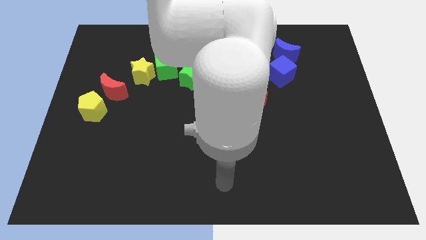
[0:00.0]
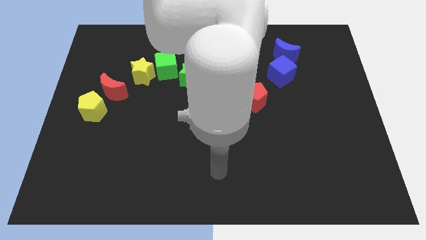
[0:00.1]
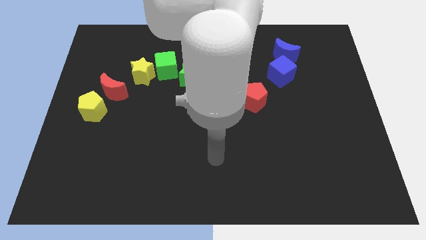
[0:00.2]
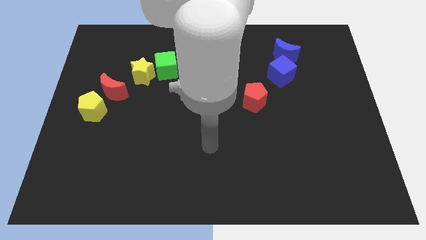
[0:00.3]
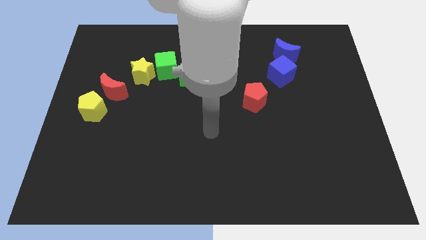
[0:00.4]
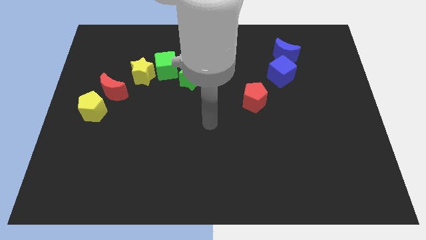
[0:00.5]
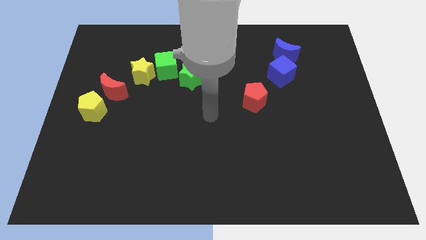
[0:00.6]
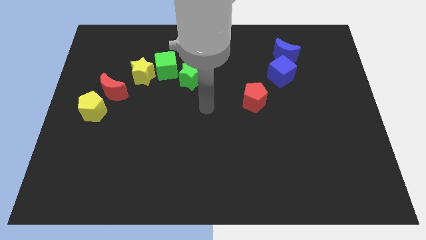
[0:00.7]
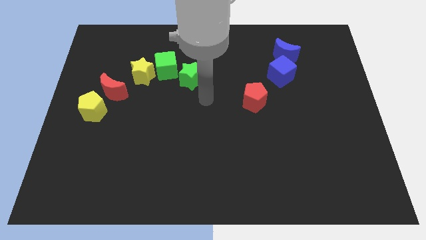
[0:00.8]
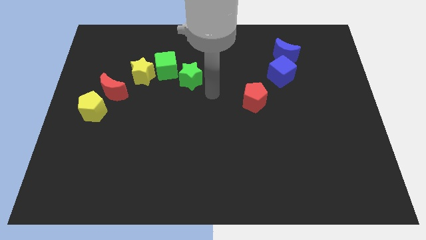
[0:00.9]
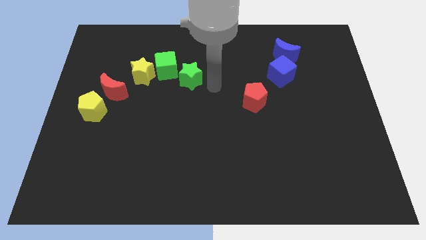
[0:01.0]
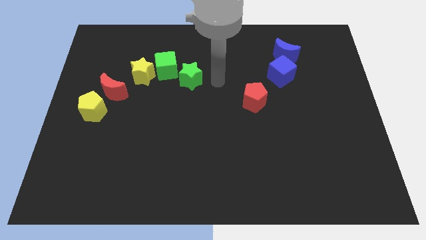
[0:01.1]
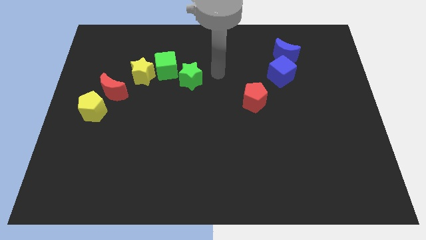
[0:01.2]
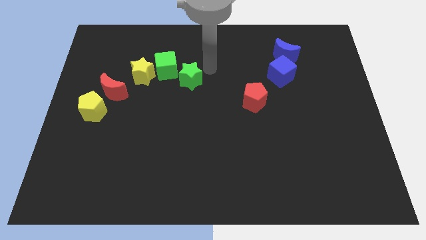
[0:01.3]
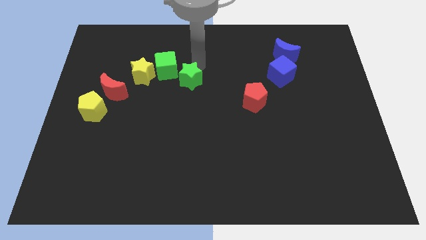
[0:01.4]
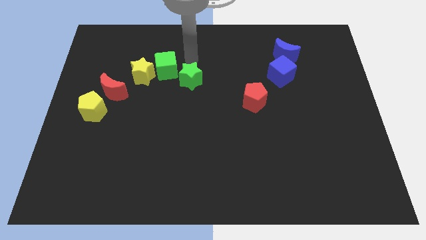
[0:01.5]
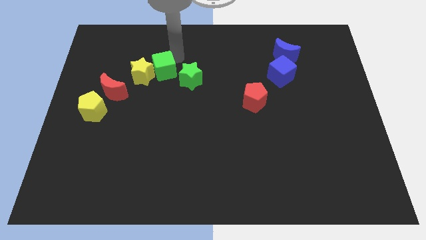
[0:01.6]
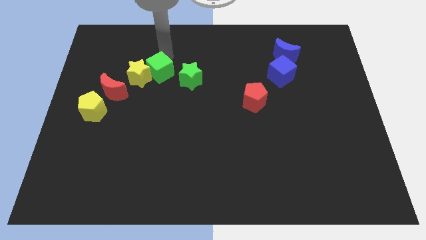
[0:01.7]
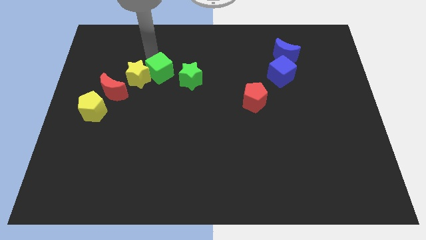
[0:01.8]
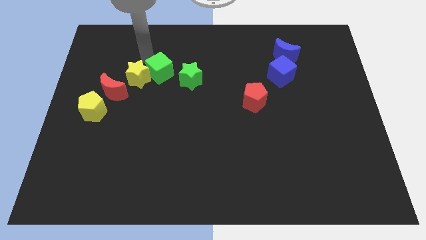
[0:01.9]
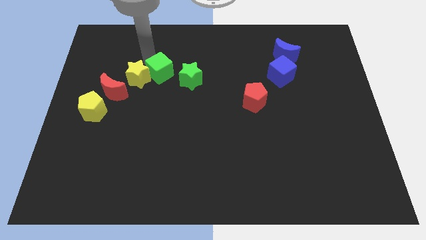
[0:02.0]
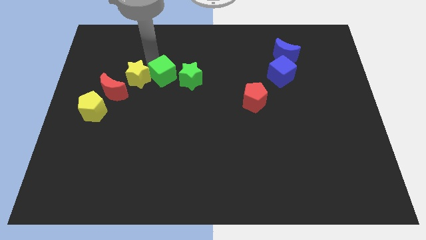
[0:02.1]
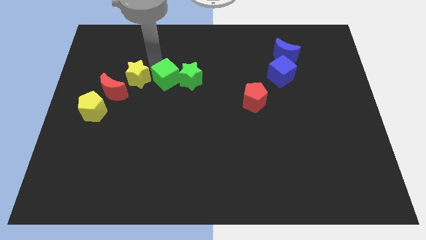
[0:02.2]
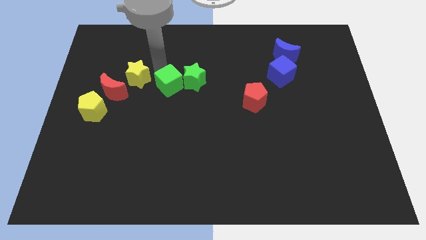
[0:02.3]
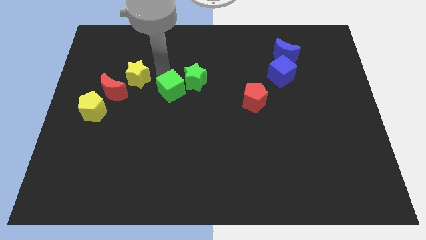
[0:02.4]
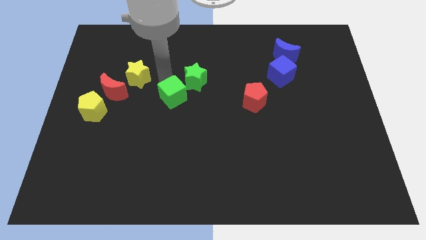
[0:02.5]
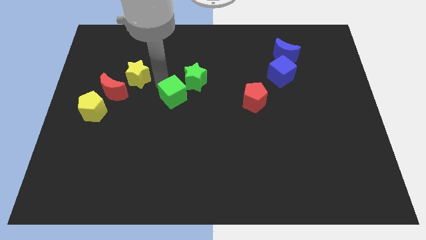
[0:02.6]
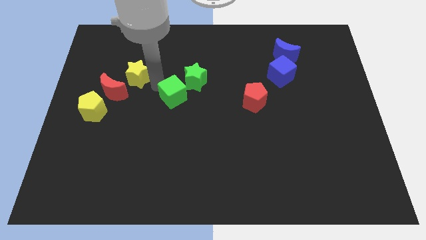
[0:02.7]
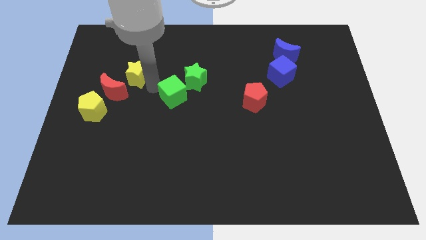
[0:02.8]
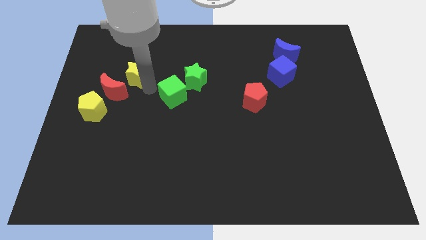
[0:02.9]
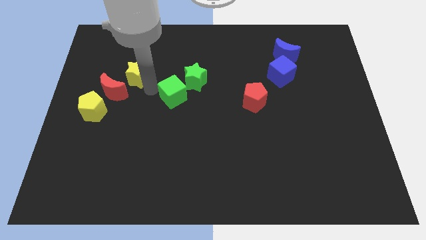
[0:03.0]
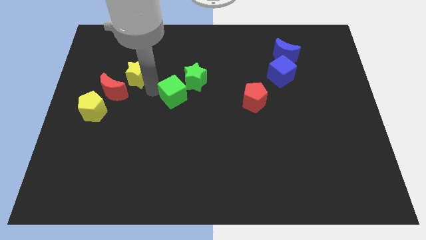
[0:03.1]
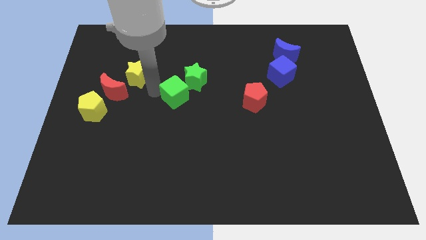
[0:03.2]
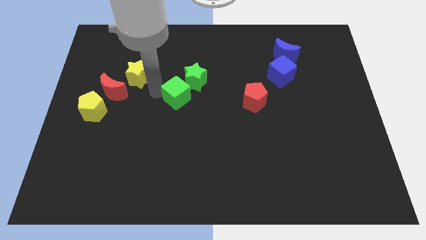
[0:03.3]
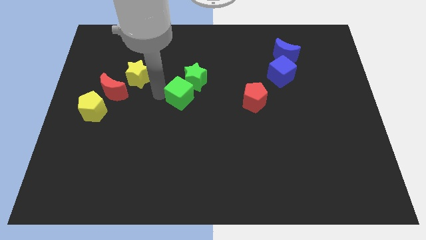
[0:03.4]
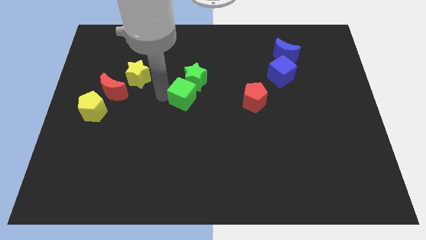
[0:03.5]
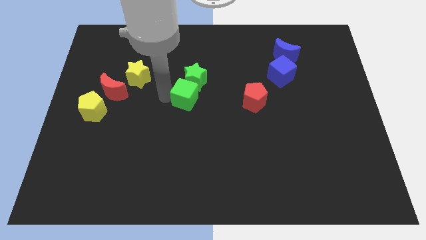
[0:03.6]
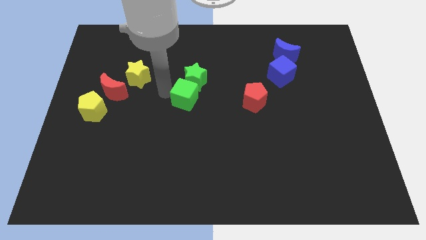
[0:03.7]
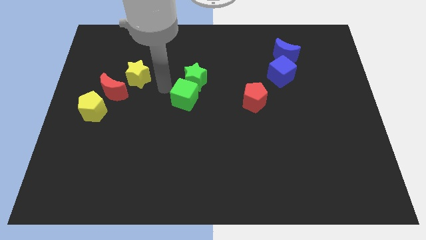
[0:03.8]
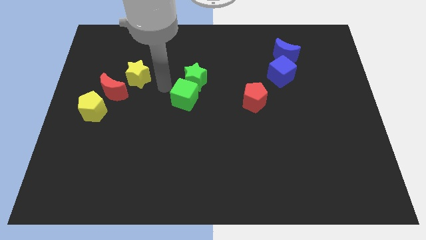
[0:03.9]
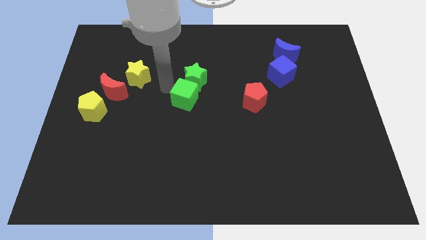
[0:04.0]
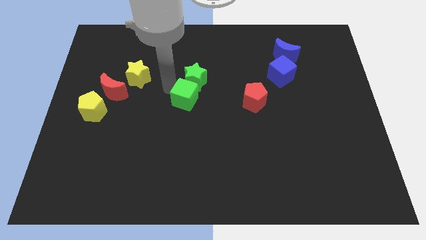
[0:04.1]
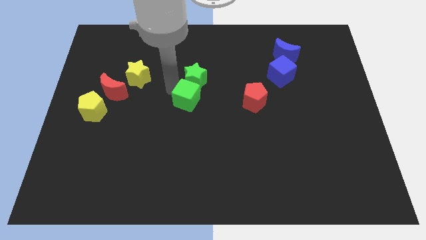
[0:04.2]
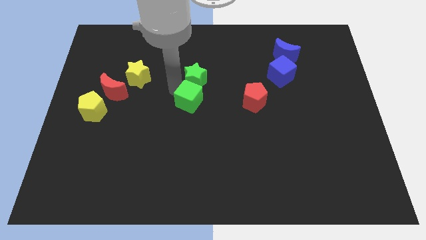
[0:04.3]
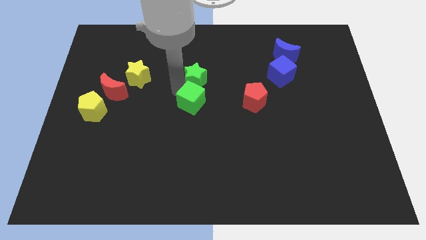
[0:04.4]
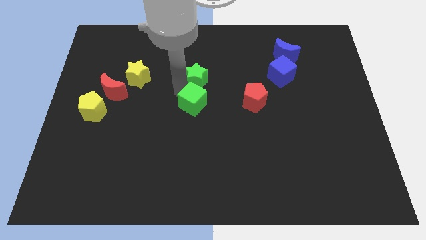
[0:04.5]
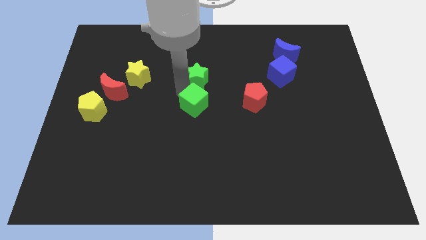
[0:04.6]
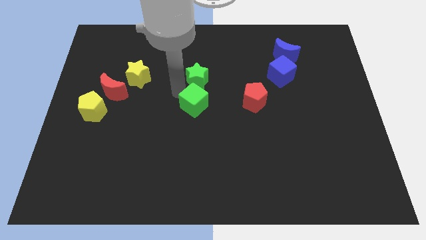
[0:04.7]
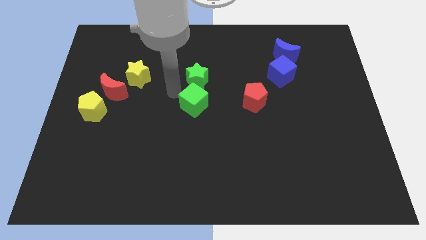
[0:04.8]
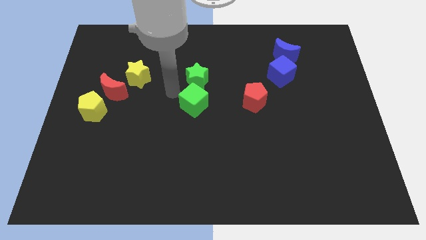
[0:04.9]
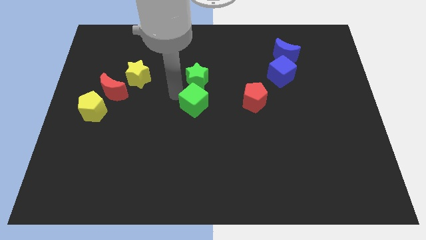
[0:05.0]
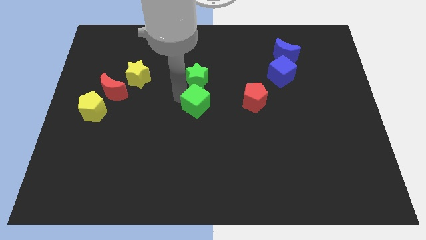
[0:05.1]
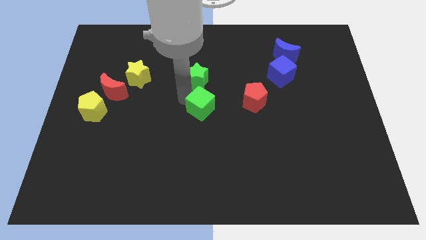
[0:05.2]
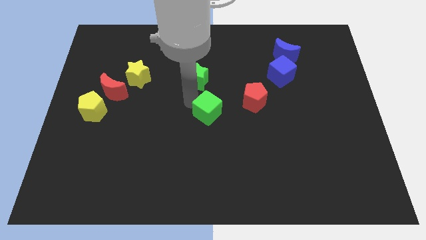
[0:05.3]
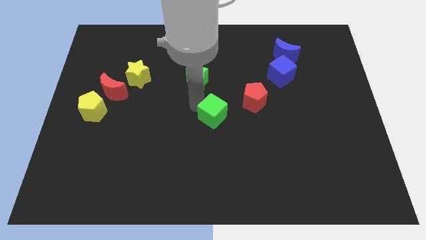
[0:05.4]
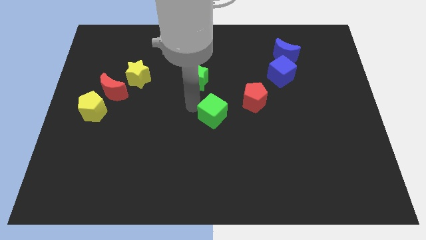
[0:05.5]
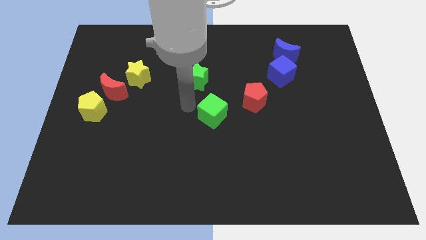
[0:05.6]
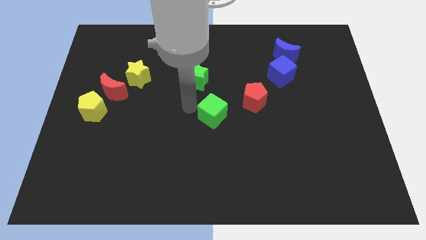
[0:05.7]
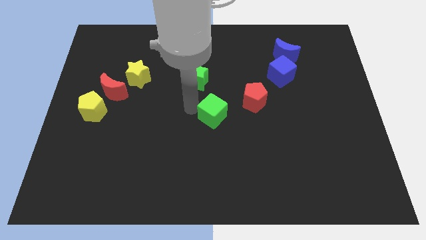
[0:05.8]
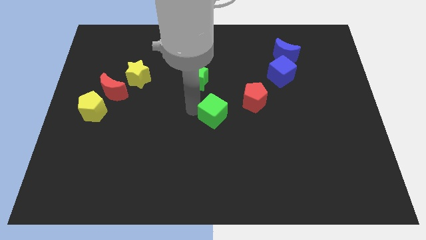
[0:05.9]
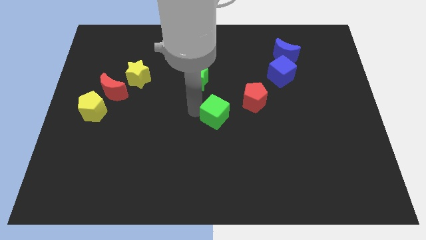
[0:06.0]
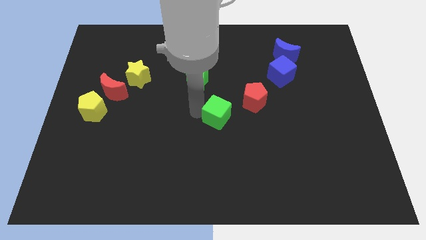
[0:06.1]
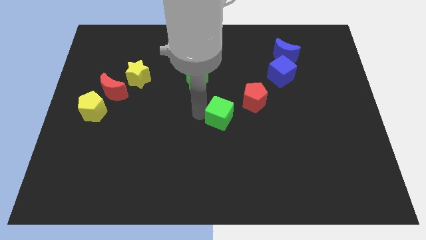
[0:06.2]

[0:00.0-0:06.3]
slide the green cube diagonally down and to the right

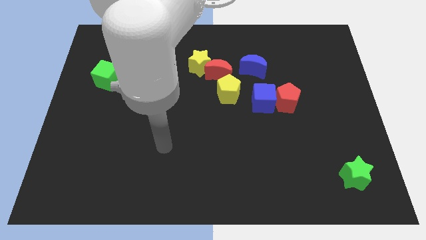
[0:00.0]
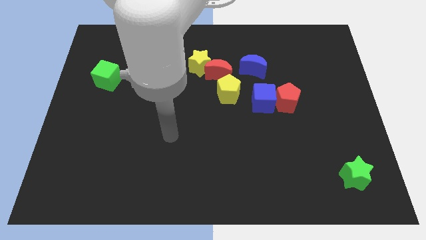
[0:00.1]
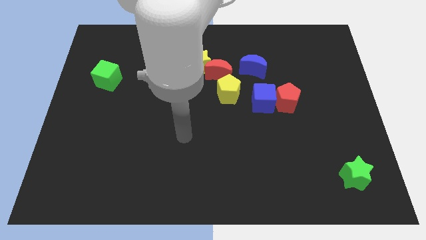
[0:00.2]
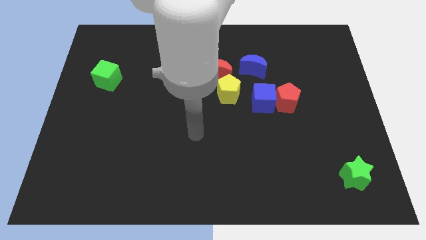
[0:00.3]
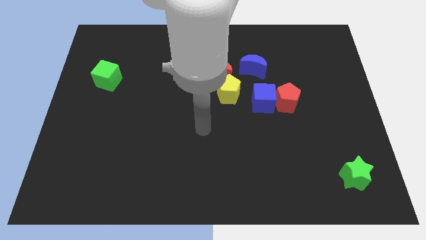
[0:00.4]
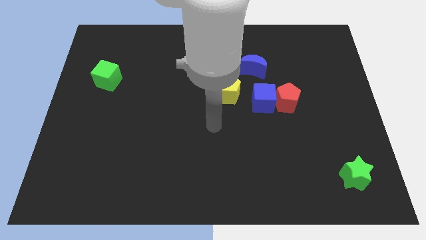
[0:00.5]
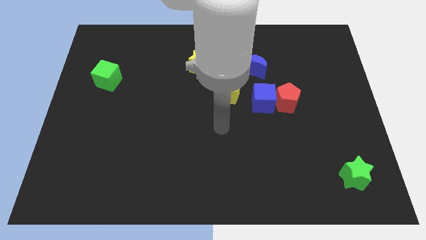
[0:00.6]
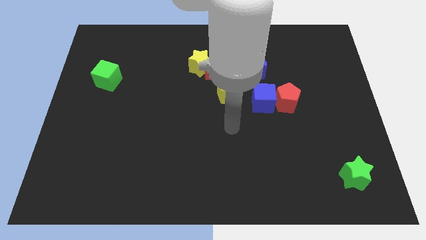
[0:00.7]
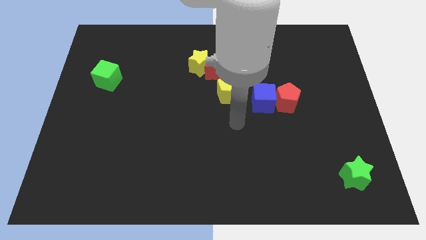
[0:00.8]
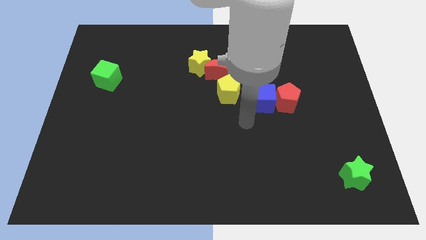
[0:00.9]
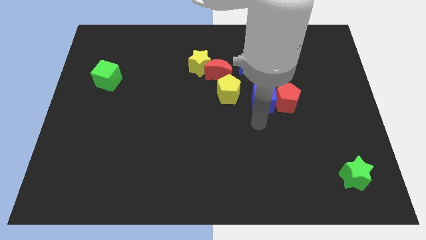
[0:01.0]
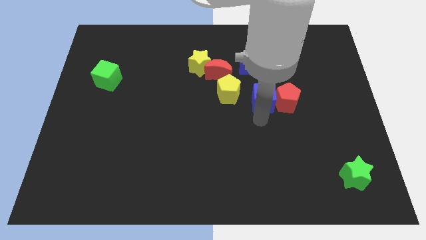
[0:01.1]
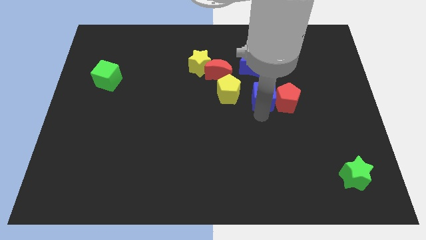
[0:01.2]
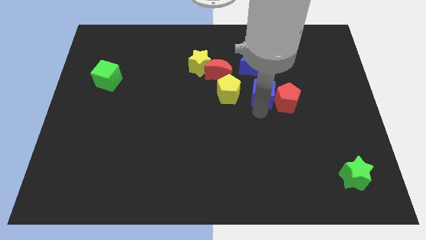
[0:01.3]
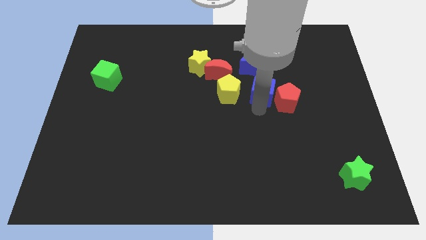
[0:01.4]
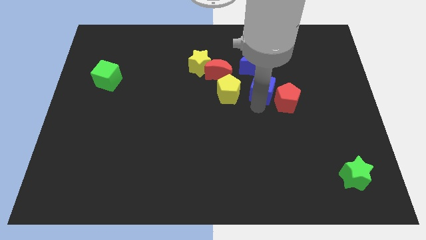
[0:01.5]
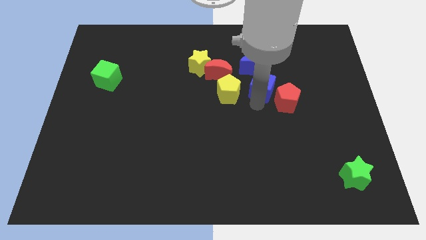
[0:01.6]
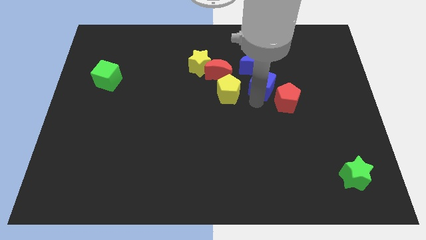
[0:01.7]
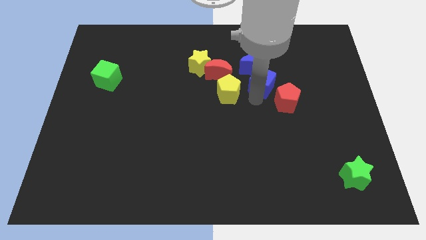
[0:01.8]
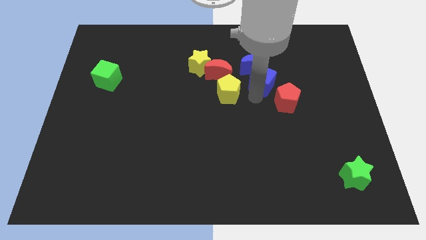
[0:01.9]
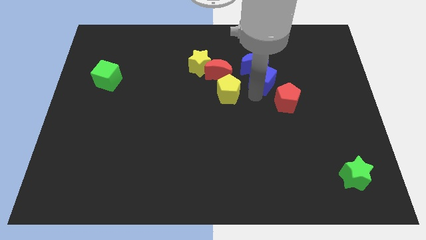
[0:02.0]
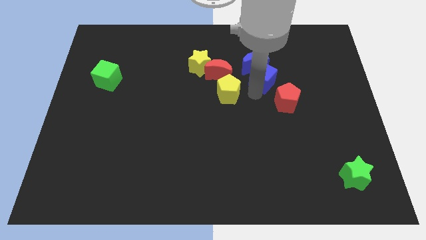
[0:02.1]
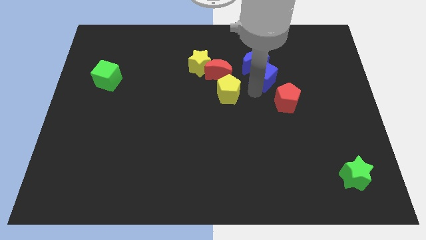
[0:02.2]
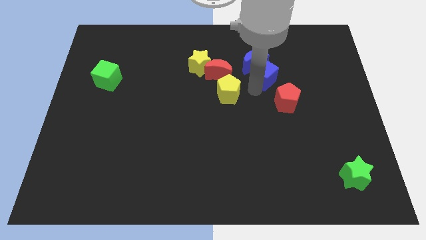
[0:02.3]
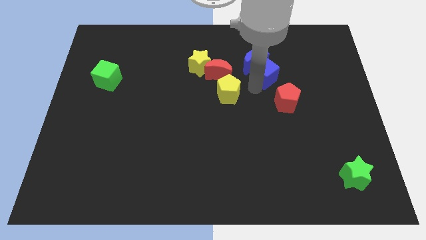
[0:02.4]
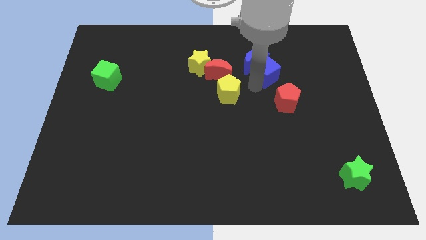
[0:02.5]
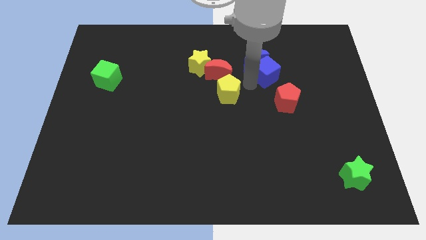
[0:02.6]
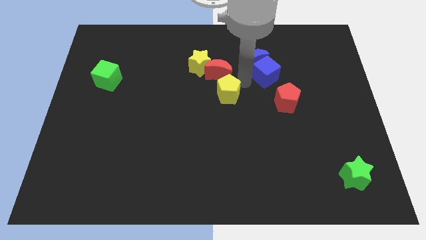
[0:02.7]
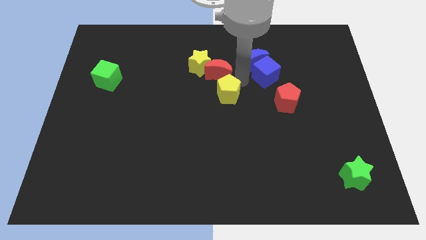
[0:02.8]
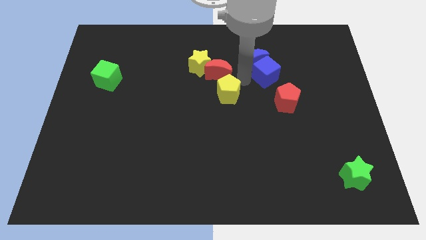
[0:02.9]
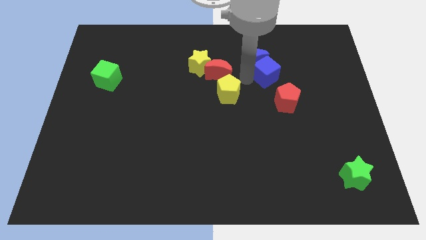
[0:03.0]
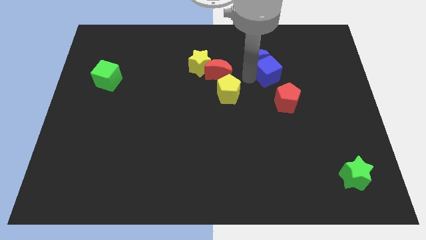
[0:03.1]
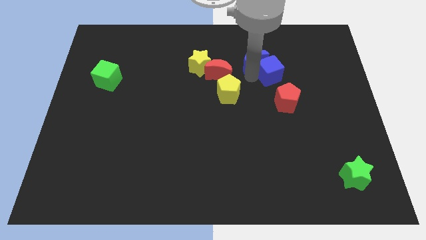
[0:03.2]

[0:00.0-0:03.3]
push the blue cube a bit upwards and then right
